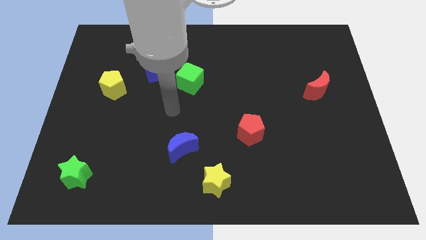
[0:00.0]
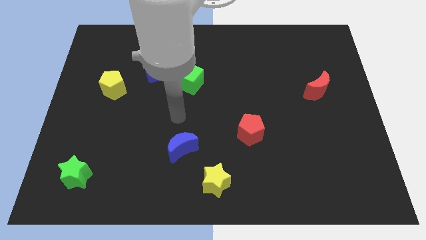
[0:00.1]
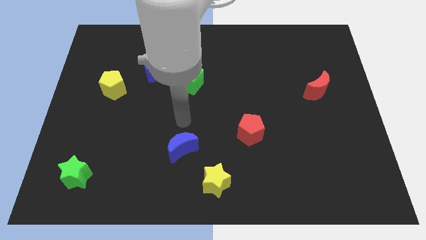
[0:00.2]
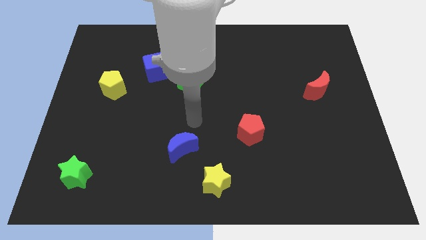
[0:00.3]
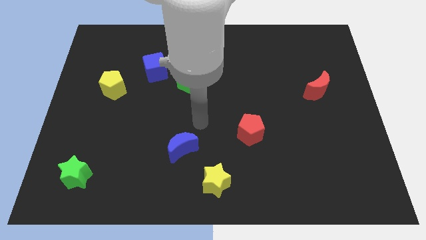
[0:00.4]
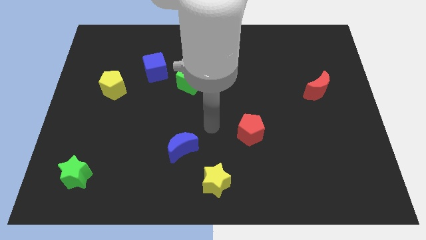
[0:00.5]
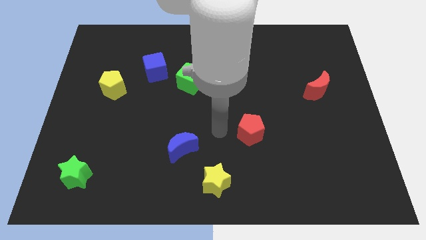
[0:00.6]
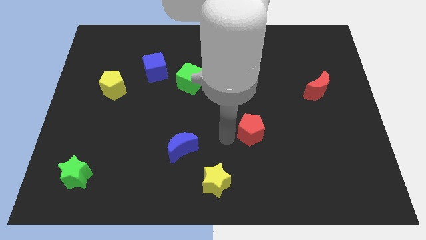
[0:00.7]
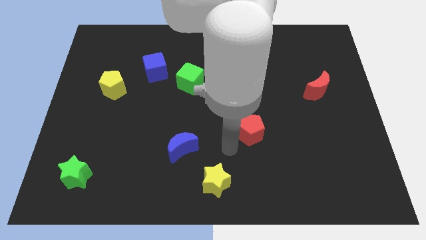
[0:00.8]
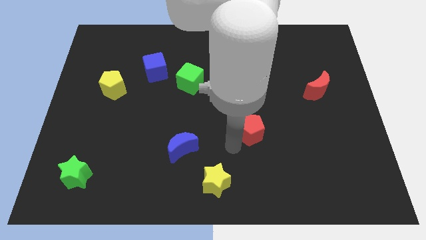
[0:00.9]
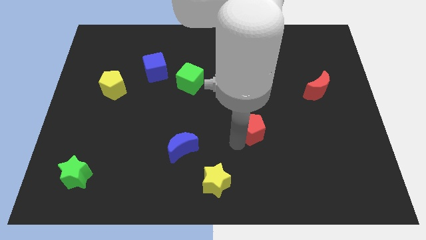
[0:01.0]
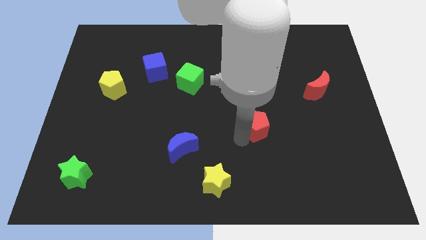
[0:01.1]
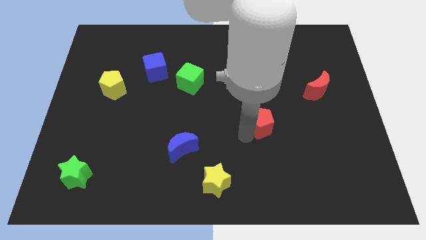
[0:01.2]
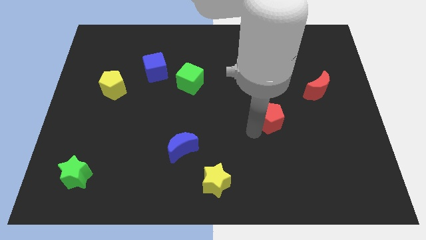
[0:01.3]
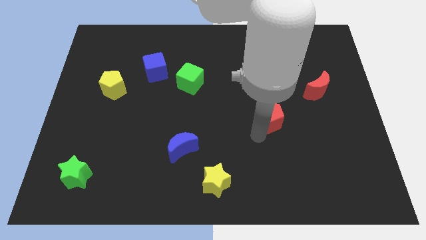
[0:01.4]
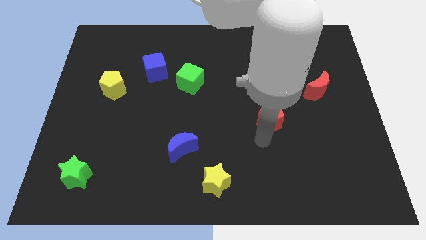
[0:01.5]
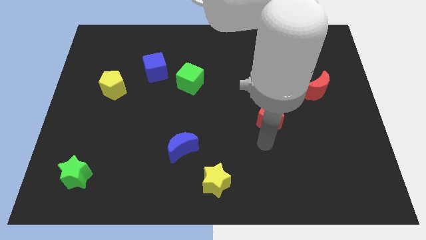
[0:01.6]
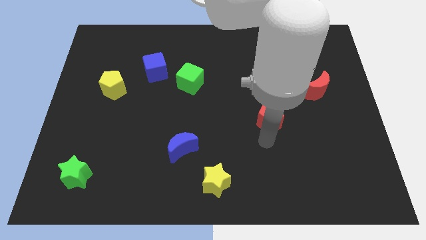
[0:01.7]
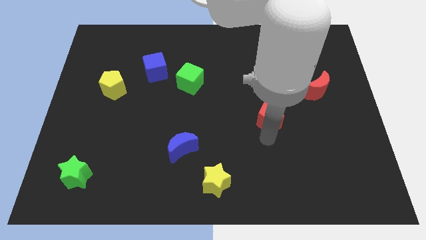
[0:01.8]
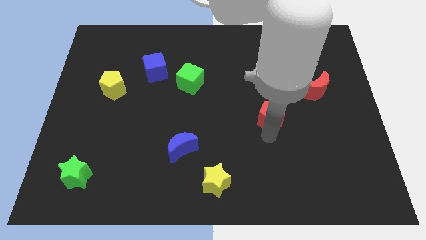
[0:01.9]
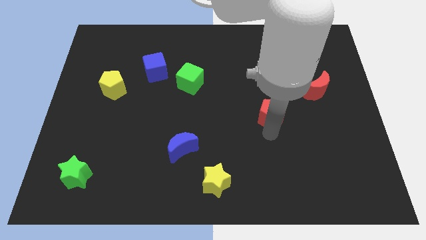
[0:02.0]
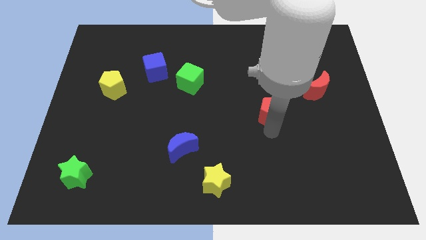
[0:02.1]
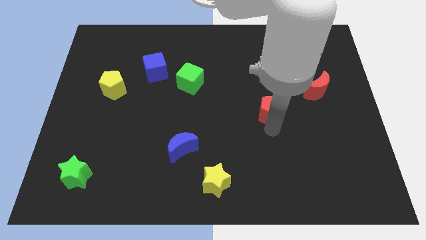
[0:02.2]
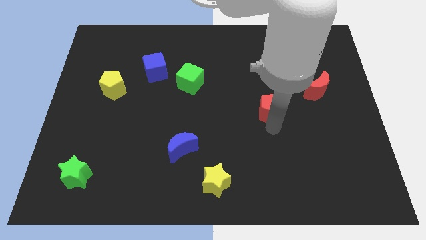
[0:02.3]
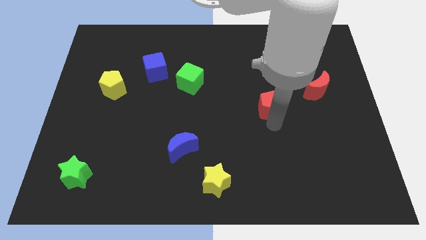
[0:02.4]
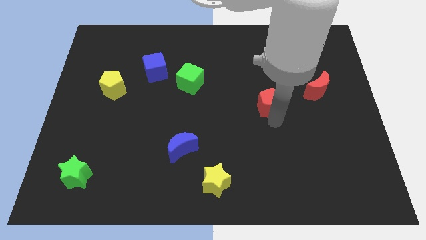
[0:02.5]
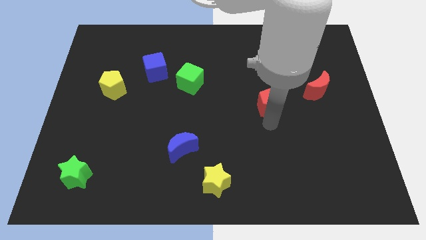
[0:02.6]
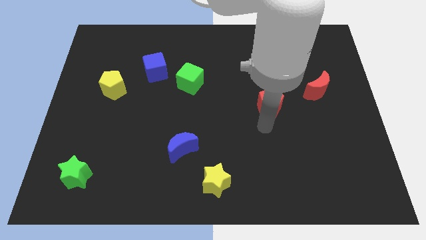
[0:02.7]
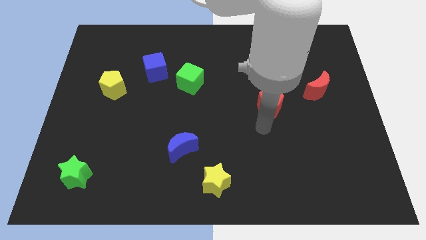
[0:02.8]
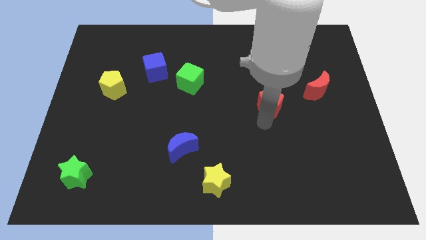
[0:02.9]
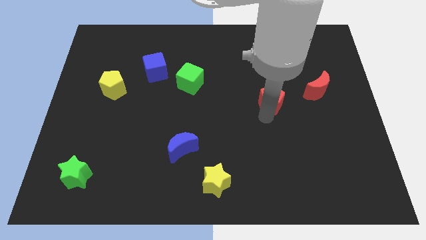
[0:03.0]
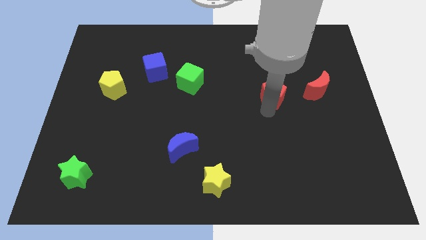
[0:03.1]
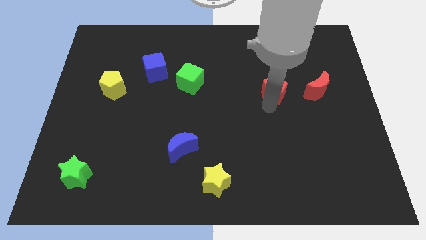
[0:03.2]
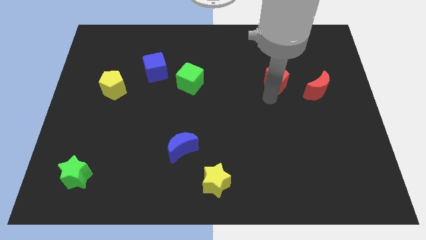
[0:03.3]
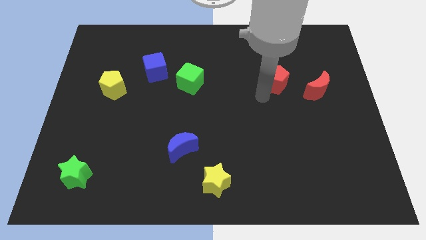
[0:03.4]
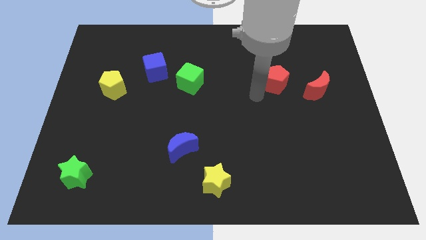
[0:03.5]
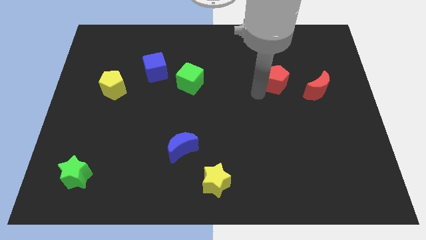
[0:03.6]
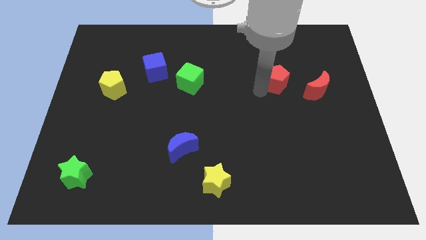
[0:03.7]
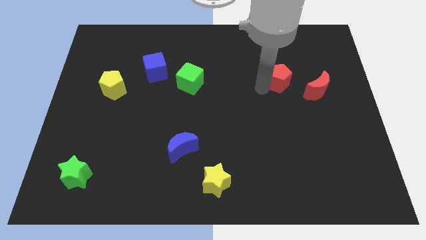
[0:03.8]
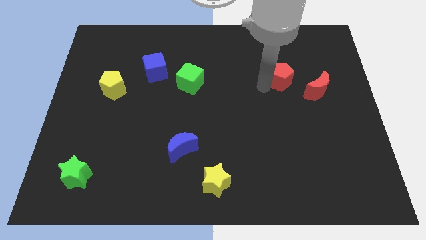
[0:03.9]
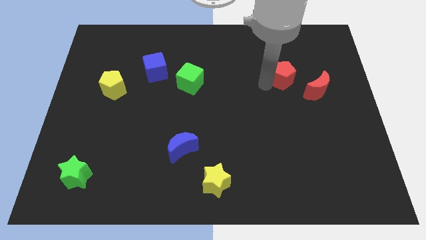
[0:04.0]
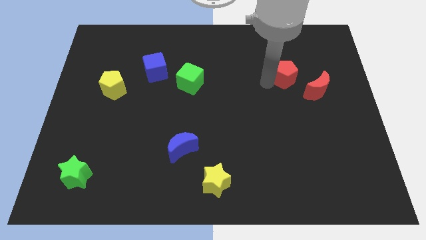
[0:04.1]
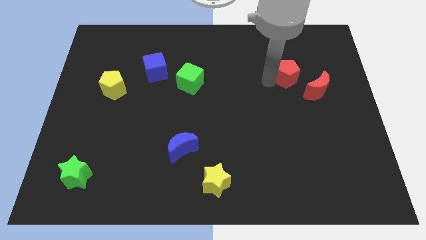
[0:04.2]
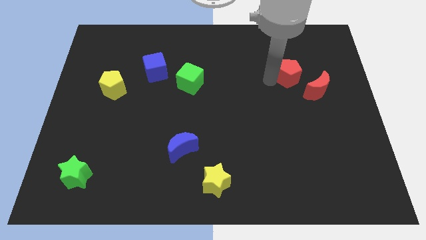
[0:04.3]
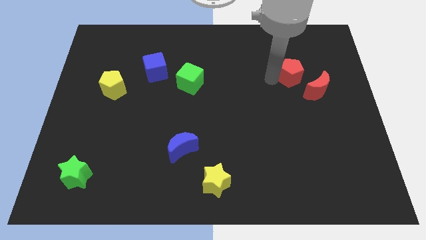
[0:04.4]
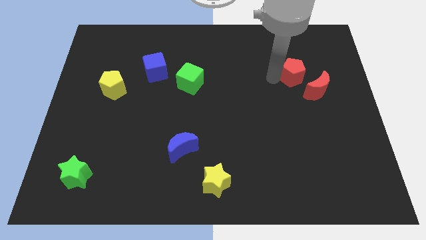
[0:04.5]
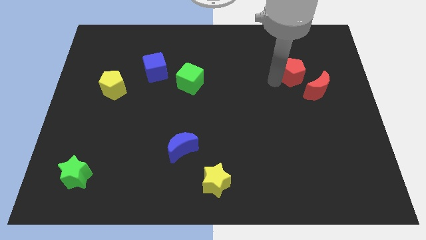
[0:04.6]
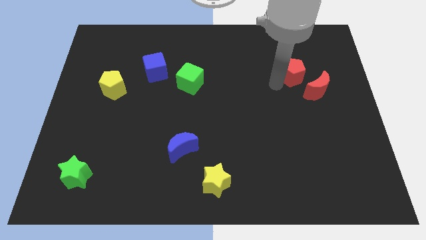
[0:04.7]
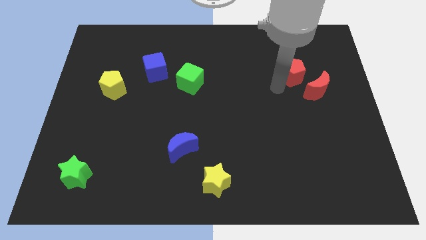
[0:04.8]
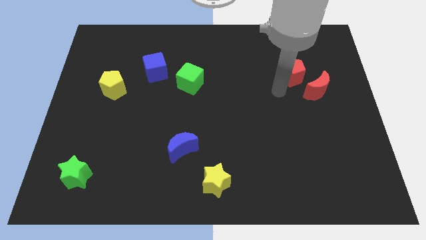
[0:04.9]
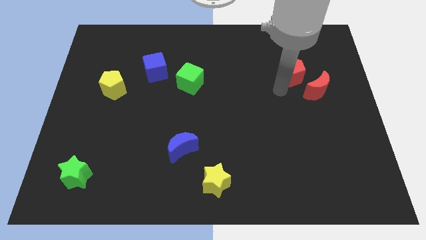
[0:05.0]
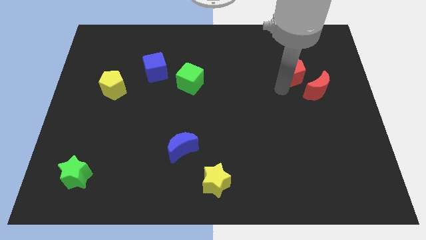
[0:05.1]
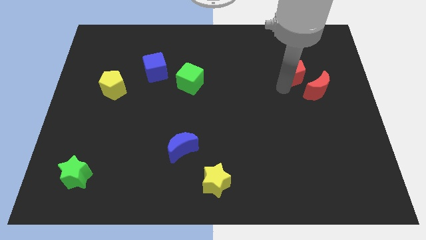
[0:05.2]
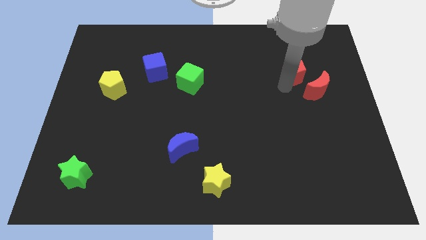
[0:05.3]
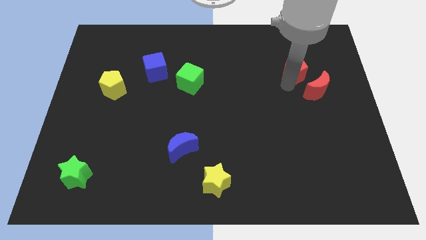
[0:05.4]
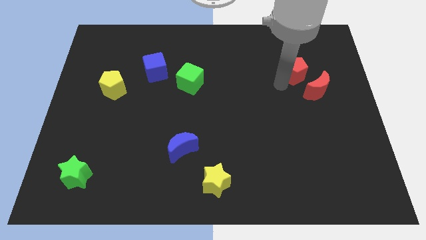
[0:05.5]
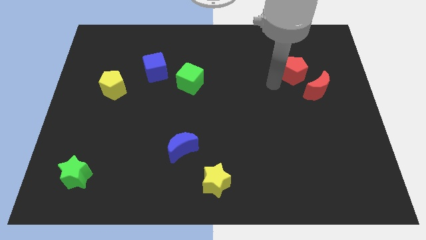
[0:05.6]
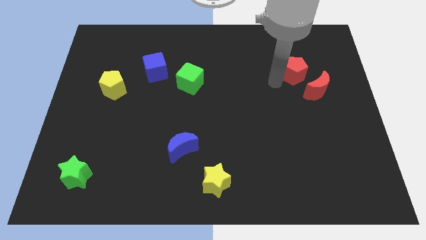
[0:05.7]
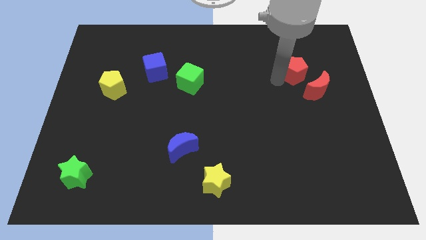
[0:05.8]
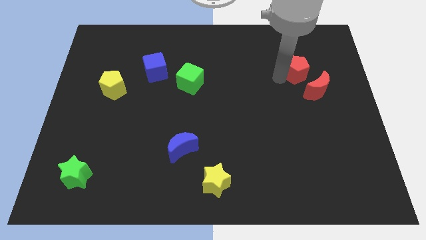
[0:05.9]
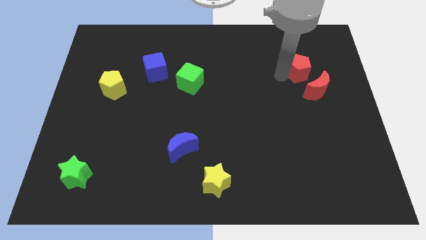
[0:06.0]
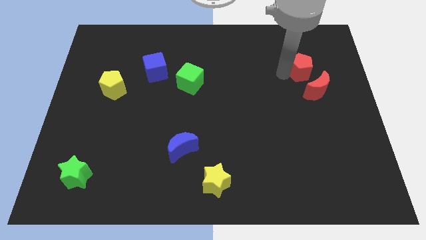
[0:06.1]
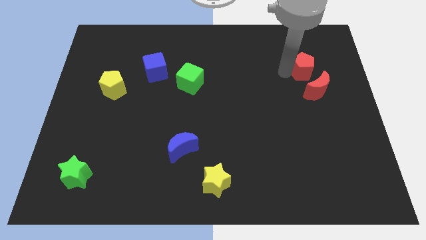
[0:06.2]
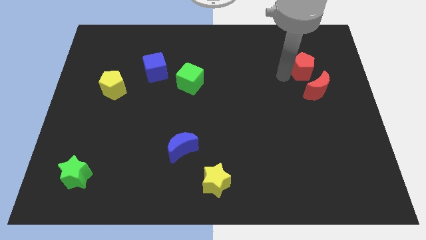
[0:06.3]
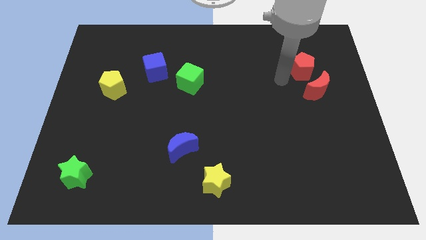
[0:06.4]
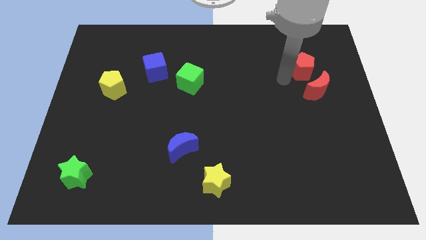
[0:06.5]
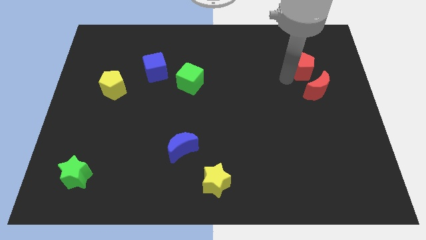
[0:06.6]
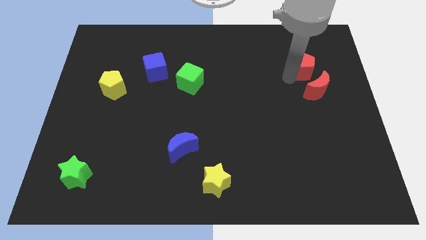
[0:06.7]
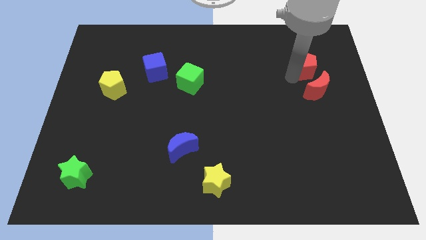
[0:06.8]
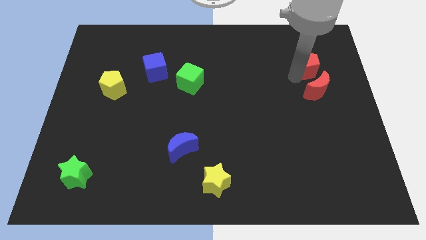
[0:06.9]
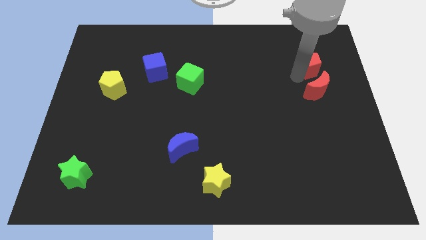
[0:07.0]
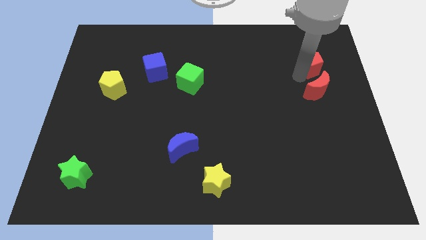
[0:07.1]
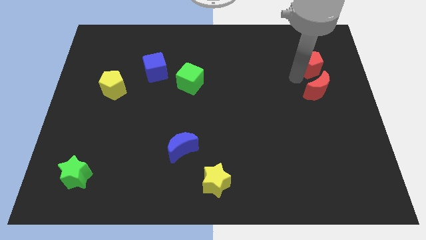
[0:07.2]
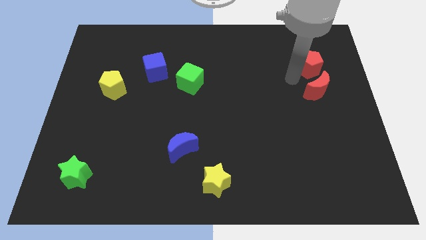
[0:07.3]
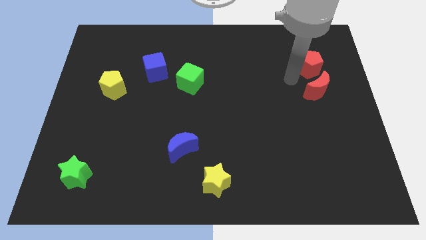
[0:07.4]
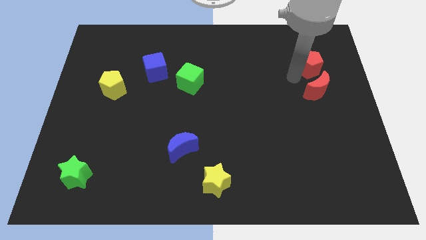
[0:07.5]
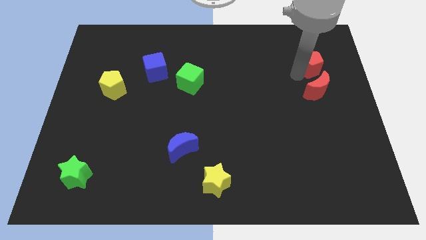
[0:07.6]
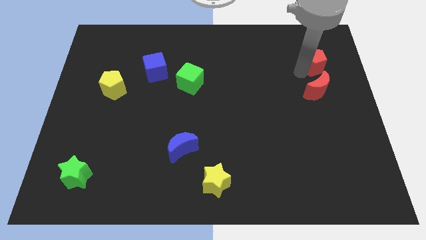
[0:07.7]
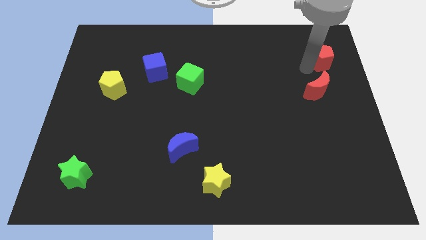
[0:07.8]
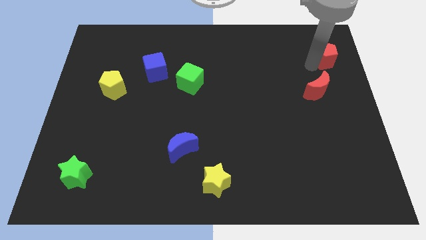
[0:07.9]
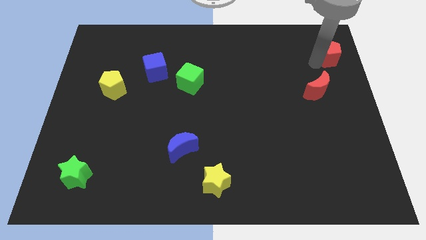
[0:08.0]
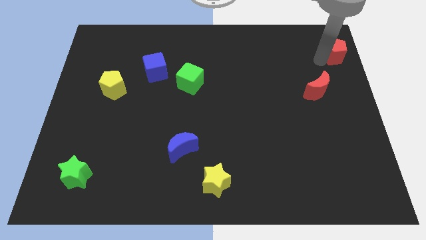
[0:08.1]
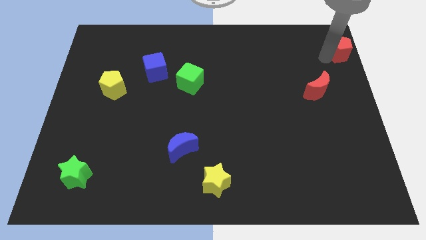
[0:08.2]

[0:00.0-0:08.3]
push the red pentagon to the upper right corner
